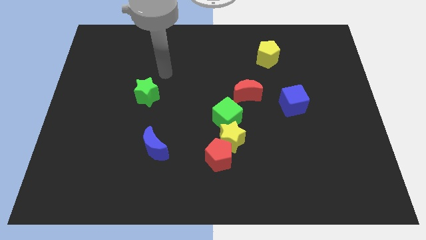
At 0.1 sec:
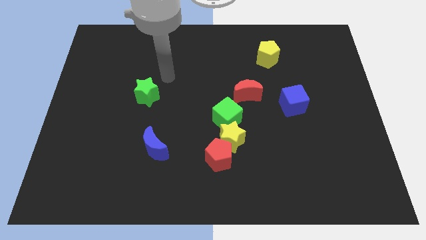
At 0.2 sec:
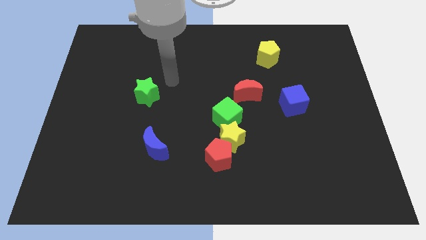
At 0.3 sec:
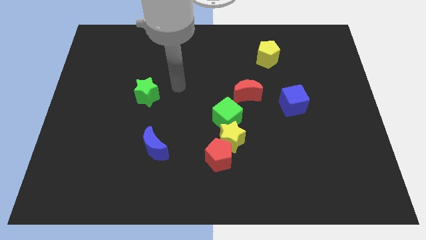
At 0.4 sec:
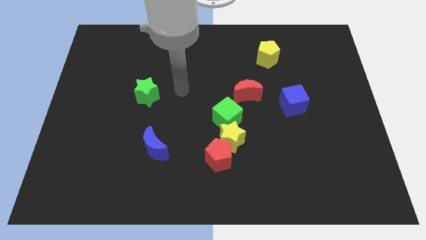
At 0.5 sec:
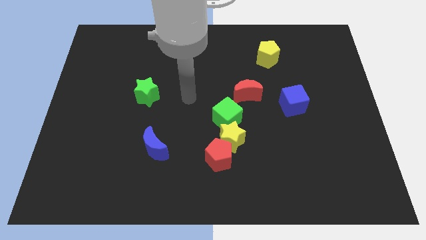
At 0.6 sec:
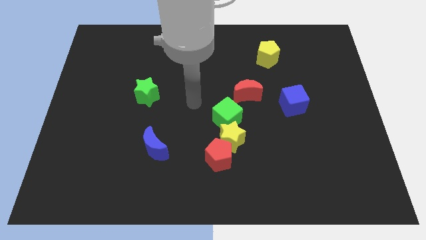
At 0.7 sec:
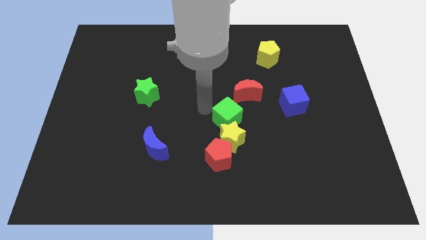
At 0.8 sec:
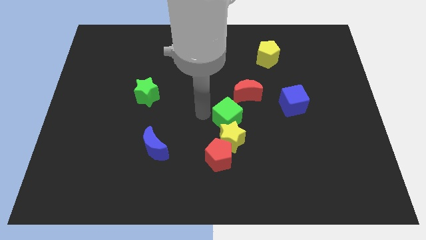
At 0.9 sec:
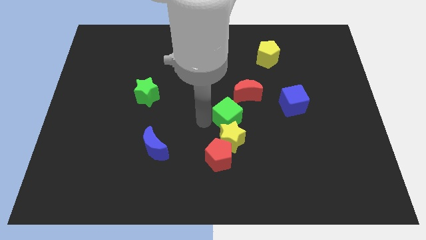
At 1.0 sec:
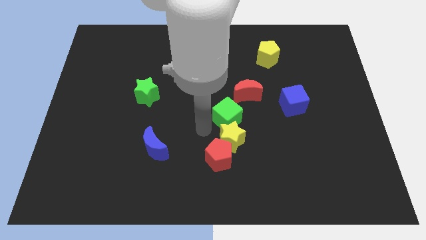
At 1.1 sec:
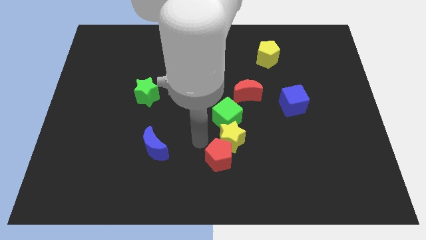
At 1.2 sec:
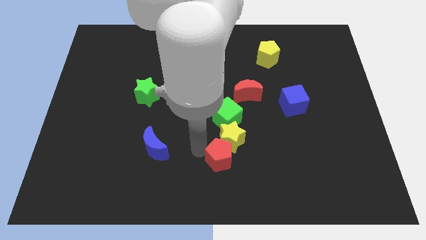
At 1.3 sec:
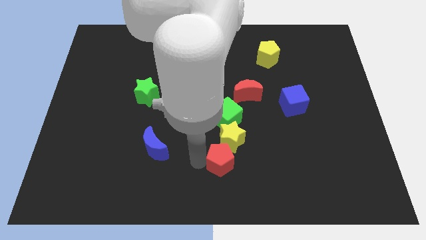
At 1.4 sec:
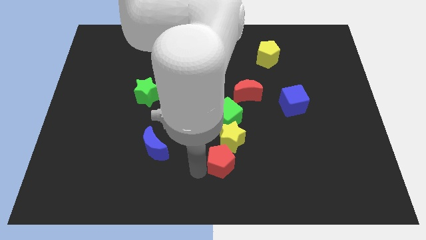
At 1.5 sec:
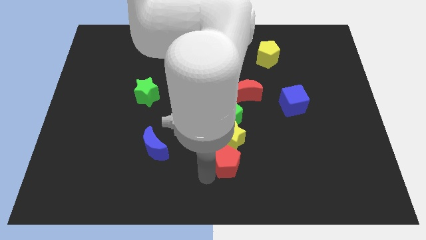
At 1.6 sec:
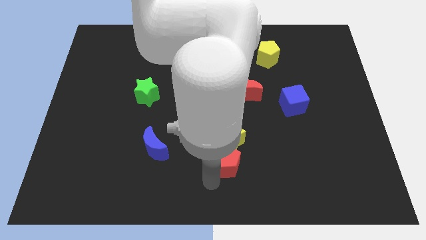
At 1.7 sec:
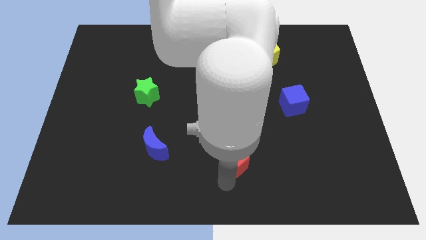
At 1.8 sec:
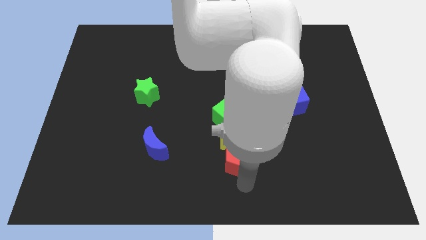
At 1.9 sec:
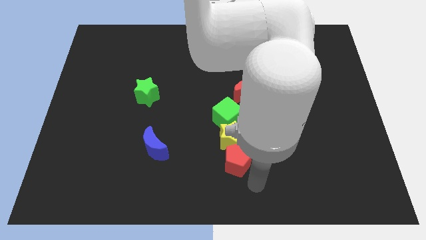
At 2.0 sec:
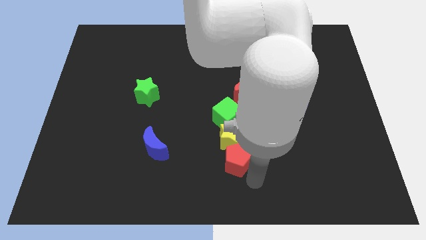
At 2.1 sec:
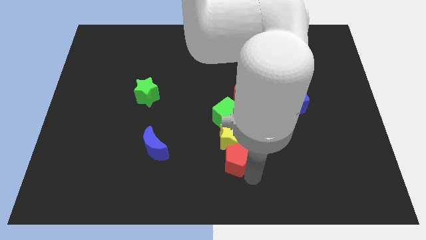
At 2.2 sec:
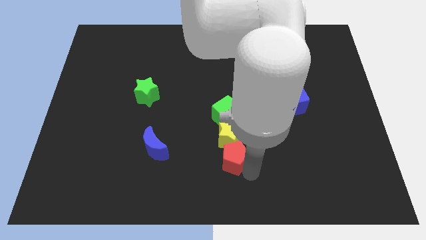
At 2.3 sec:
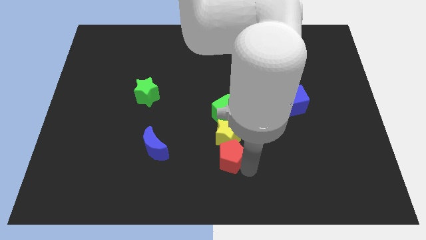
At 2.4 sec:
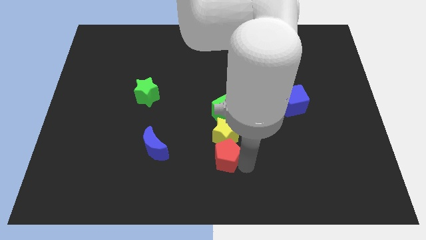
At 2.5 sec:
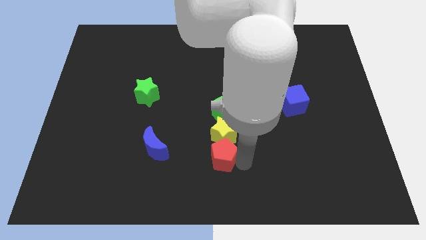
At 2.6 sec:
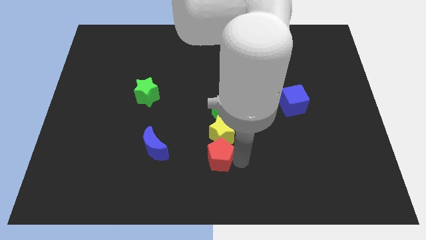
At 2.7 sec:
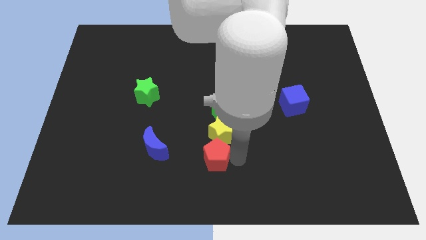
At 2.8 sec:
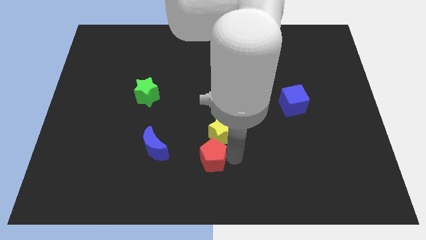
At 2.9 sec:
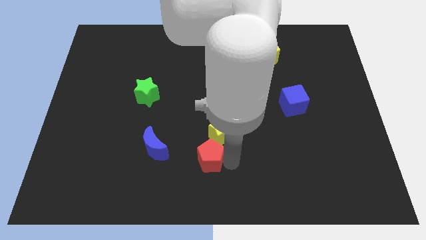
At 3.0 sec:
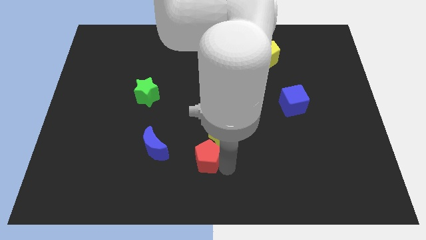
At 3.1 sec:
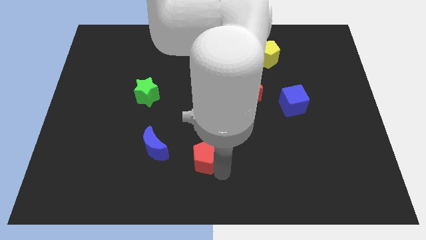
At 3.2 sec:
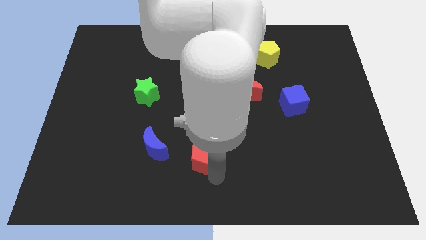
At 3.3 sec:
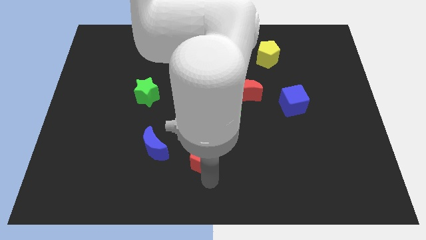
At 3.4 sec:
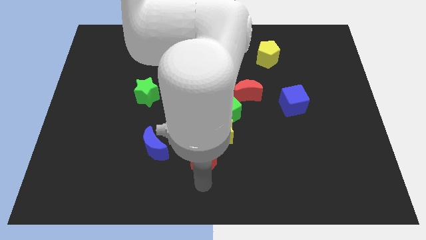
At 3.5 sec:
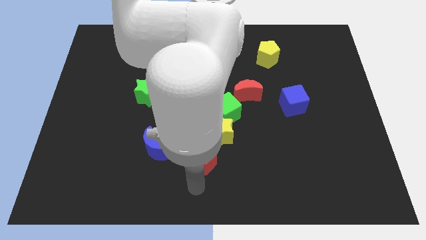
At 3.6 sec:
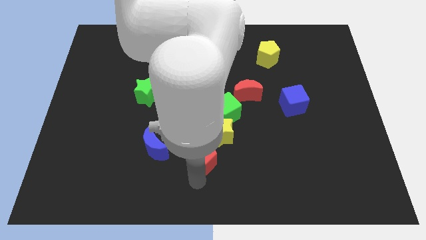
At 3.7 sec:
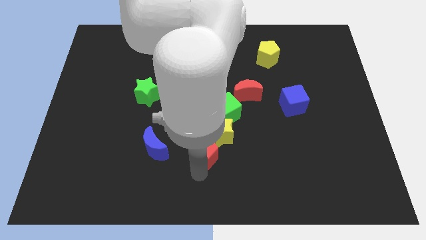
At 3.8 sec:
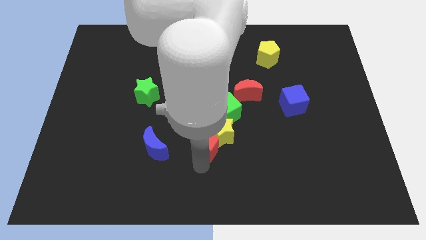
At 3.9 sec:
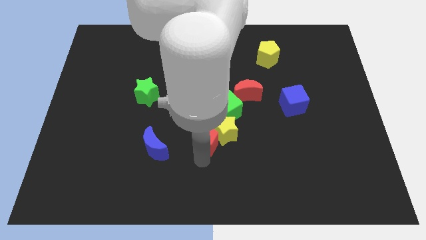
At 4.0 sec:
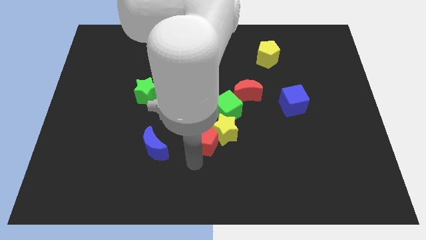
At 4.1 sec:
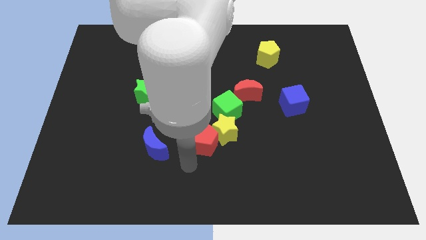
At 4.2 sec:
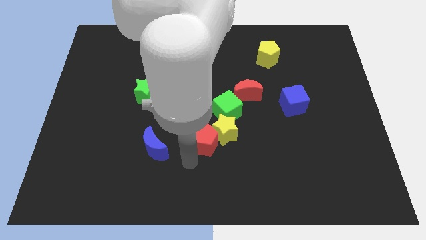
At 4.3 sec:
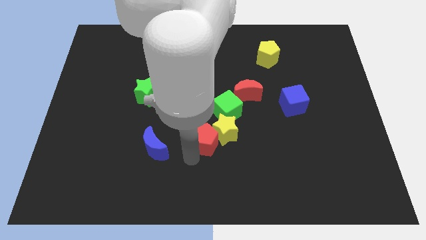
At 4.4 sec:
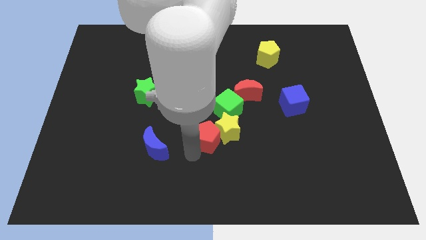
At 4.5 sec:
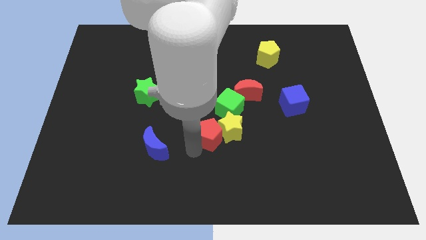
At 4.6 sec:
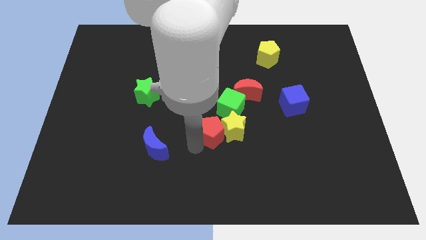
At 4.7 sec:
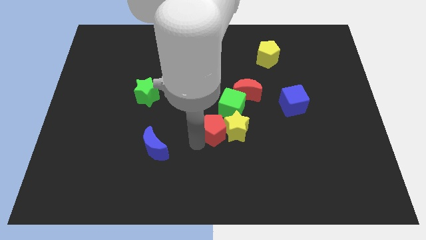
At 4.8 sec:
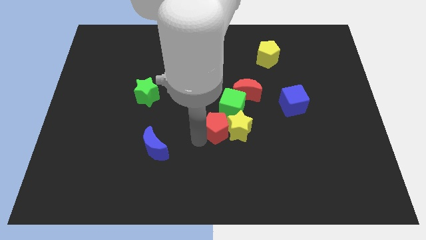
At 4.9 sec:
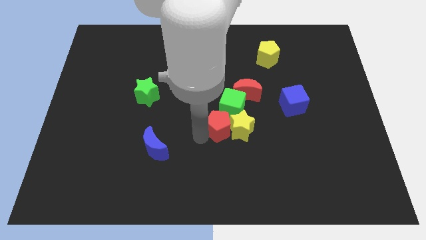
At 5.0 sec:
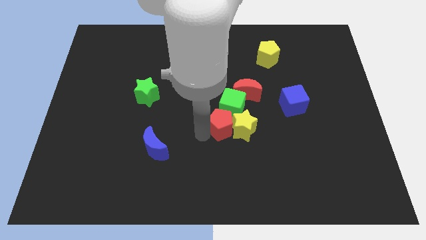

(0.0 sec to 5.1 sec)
move the red pentagon close to the green cube

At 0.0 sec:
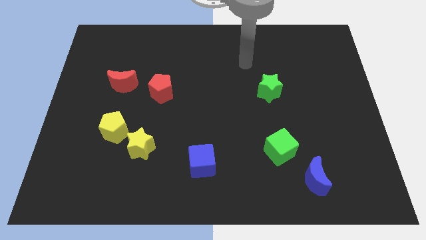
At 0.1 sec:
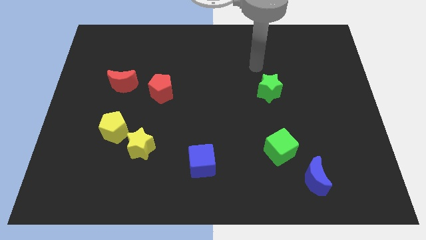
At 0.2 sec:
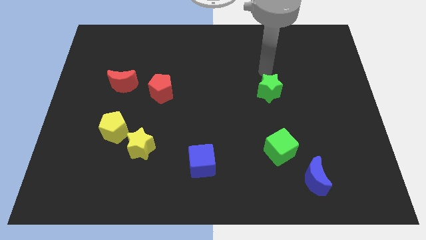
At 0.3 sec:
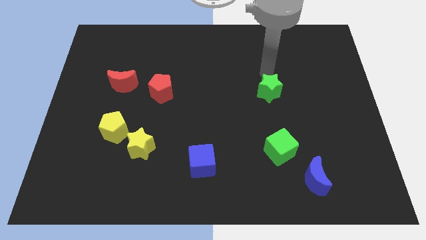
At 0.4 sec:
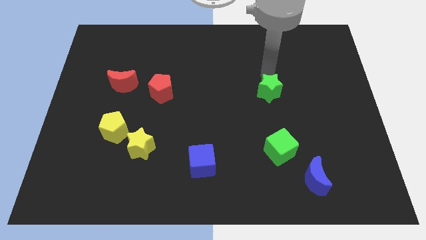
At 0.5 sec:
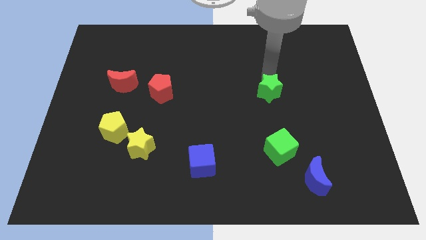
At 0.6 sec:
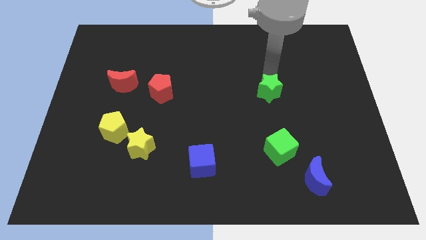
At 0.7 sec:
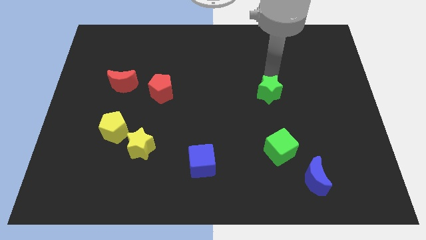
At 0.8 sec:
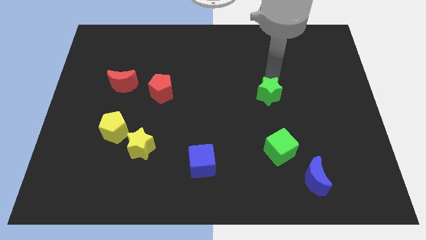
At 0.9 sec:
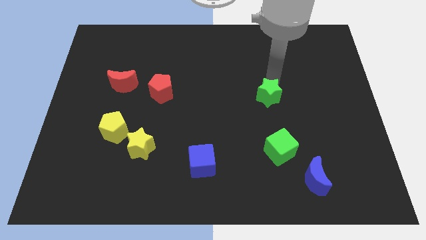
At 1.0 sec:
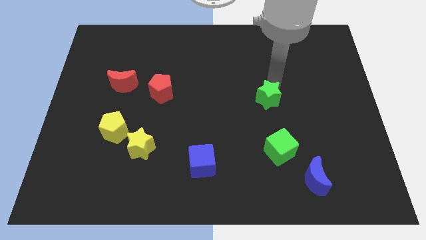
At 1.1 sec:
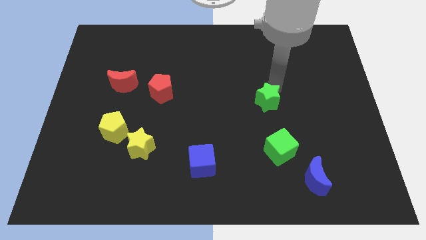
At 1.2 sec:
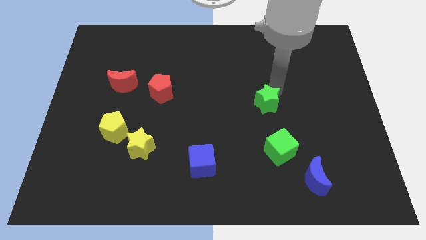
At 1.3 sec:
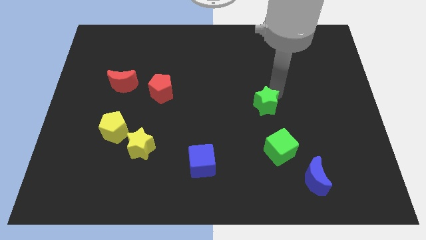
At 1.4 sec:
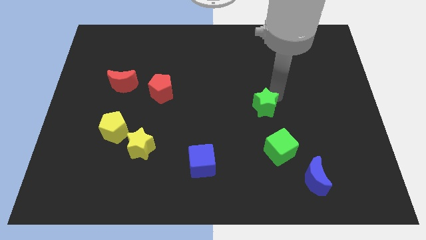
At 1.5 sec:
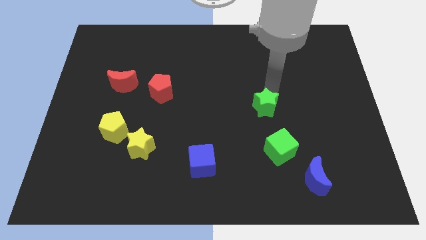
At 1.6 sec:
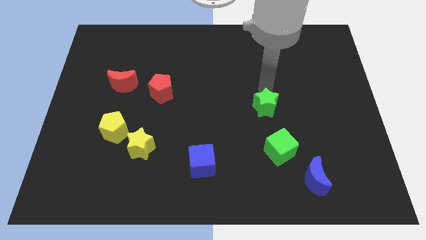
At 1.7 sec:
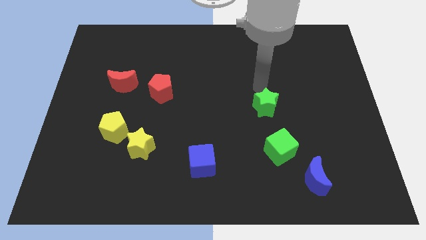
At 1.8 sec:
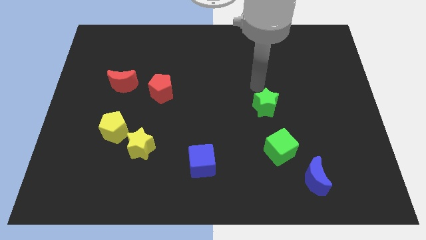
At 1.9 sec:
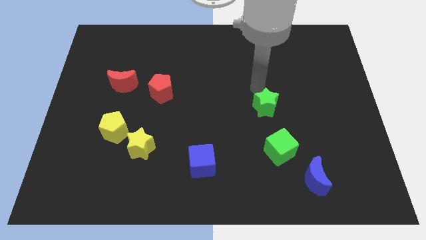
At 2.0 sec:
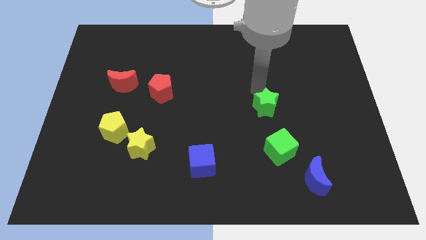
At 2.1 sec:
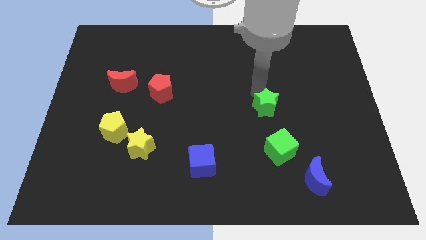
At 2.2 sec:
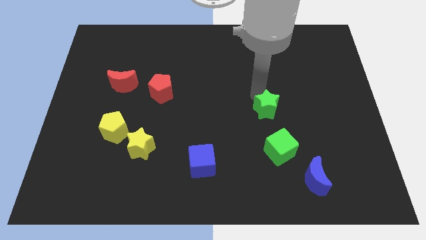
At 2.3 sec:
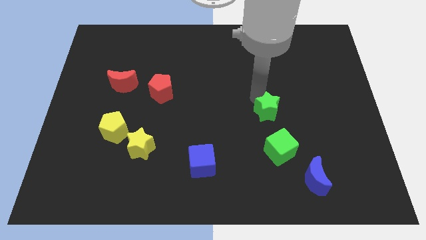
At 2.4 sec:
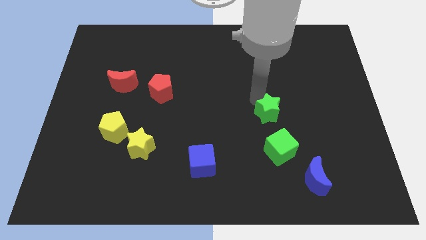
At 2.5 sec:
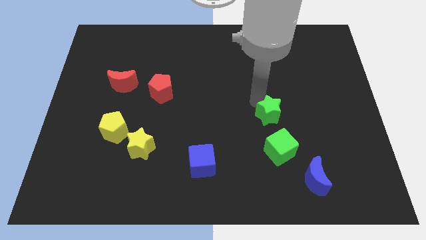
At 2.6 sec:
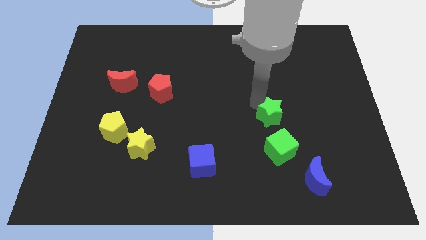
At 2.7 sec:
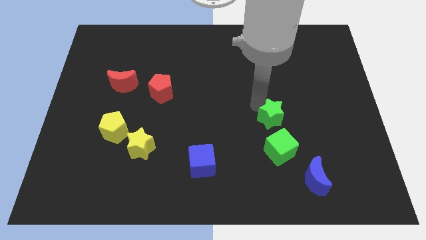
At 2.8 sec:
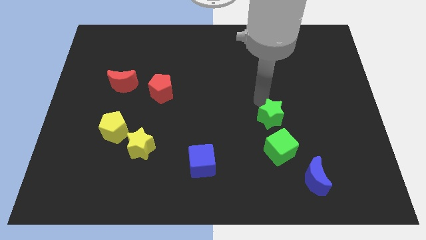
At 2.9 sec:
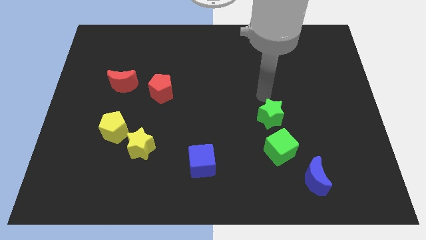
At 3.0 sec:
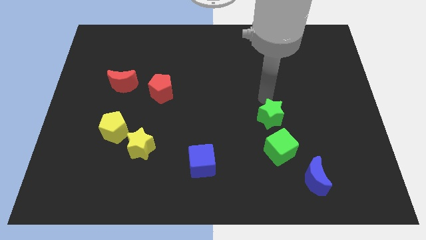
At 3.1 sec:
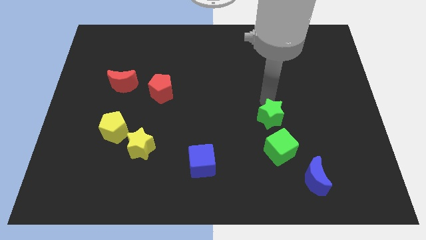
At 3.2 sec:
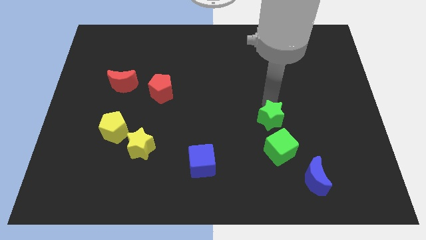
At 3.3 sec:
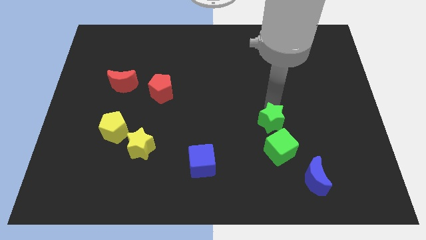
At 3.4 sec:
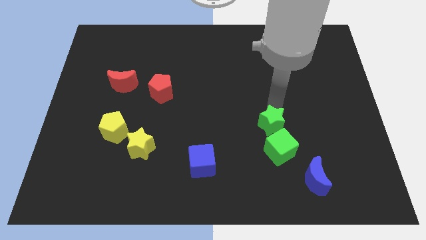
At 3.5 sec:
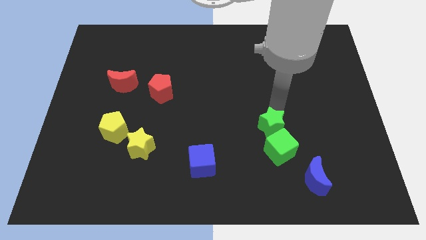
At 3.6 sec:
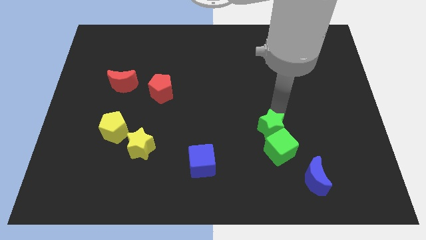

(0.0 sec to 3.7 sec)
move the green star close to the green cube
